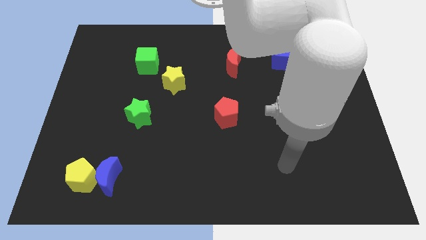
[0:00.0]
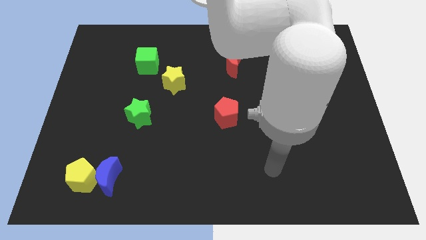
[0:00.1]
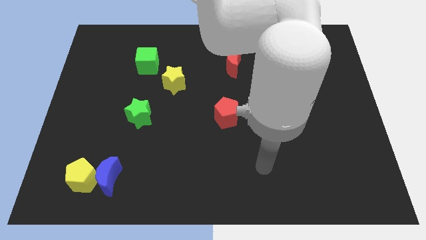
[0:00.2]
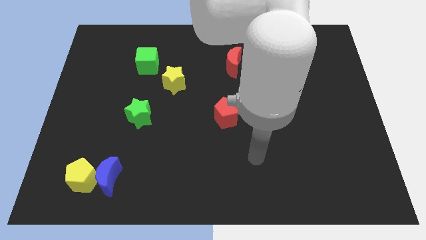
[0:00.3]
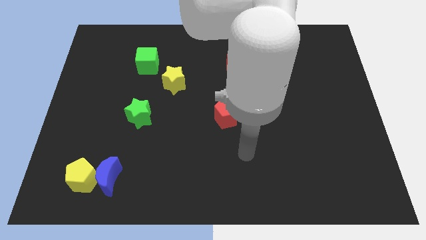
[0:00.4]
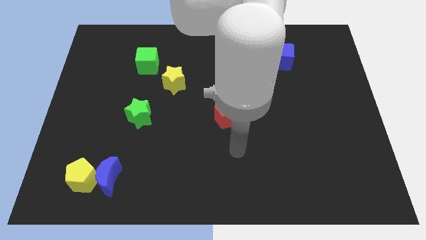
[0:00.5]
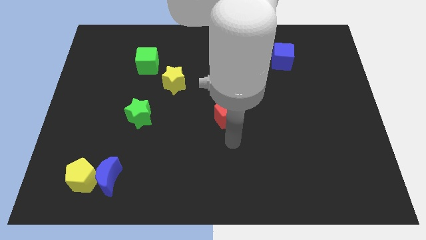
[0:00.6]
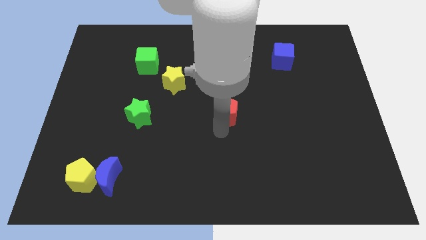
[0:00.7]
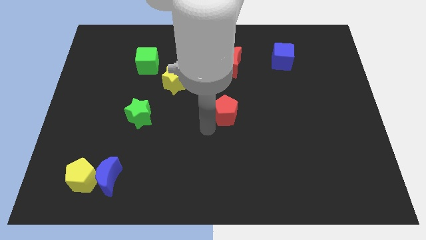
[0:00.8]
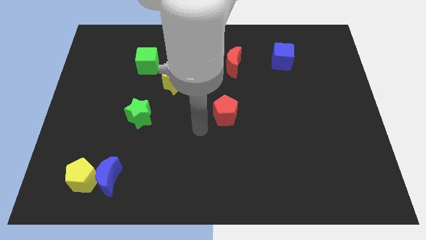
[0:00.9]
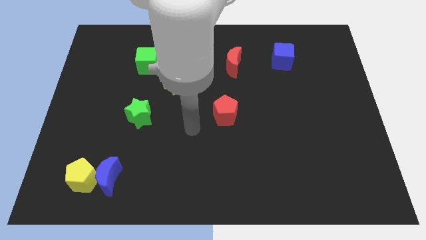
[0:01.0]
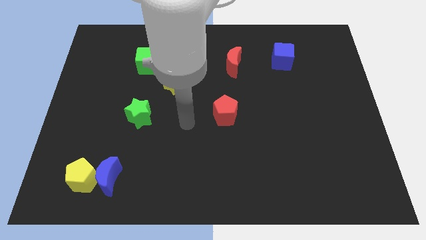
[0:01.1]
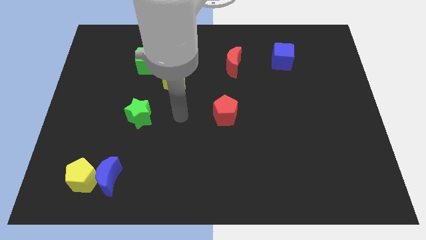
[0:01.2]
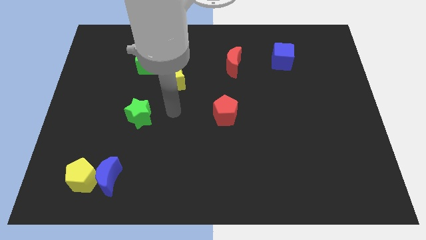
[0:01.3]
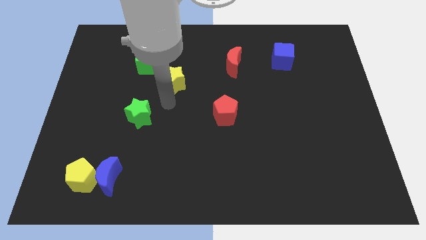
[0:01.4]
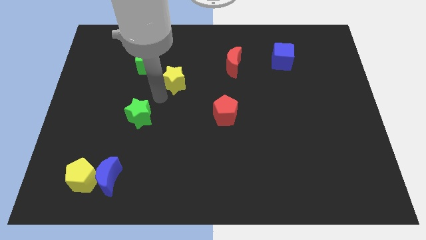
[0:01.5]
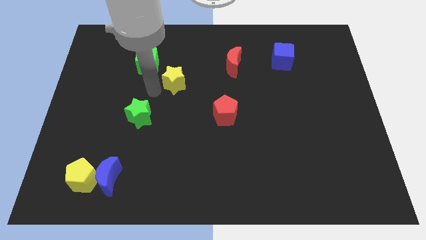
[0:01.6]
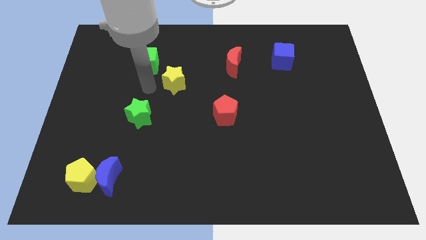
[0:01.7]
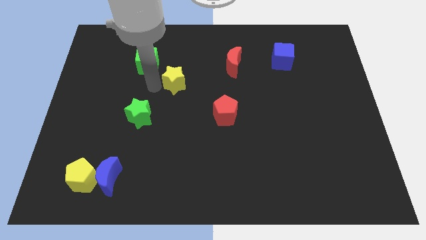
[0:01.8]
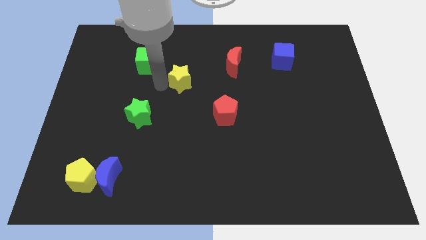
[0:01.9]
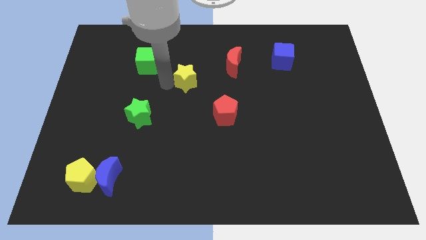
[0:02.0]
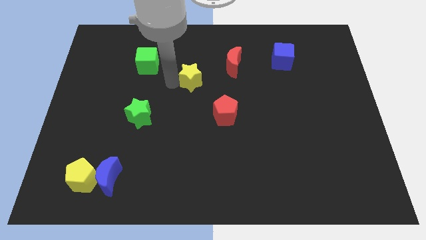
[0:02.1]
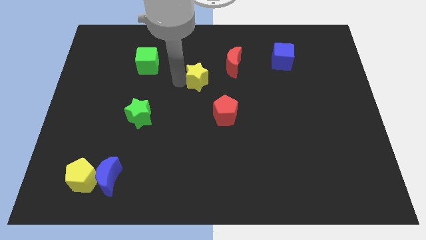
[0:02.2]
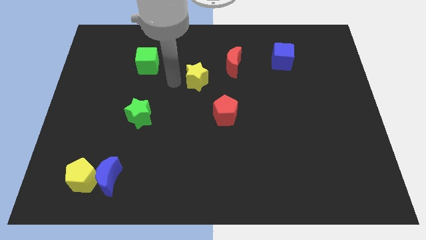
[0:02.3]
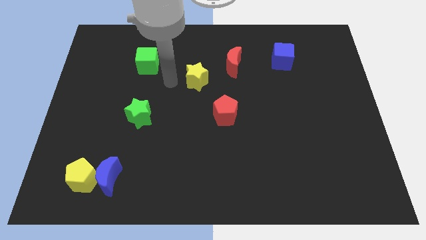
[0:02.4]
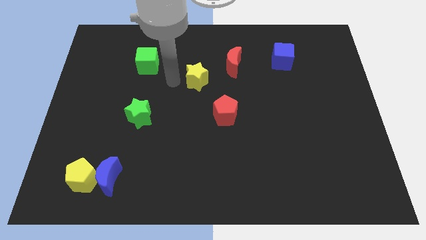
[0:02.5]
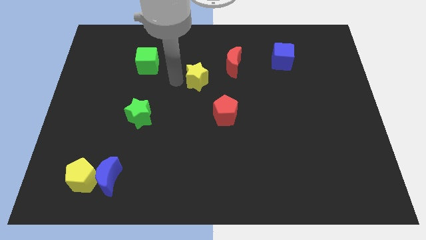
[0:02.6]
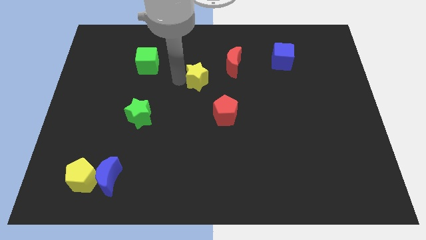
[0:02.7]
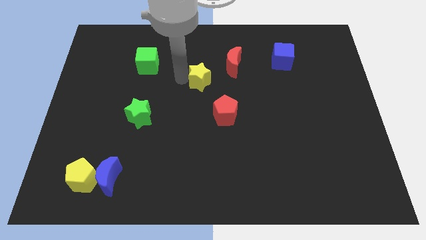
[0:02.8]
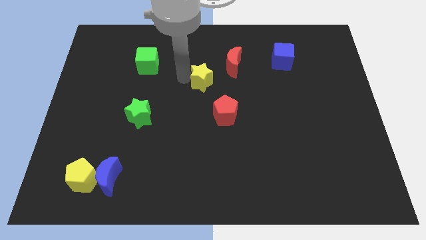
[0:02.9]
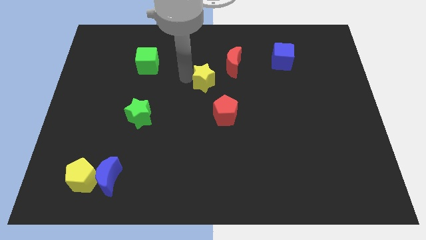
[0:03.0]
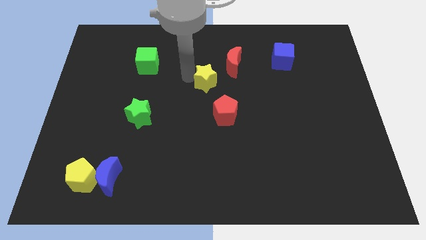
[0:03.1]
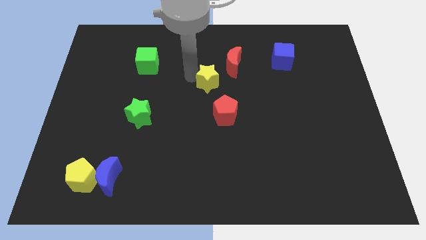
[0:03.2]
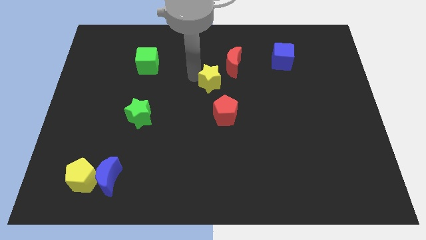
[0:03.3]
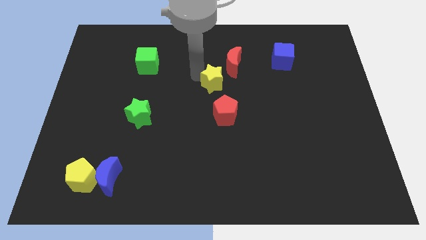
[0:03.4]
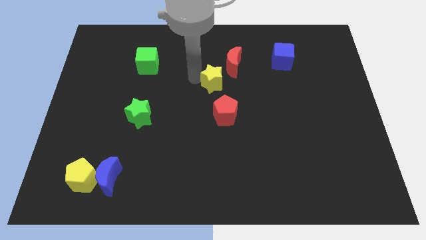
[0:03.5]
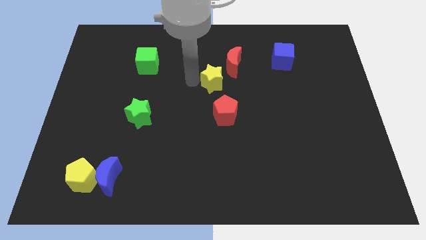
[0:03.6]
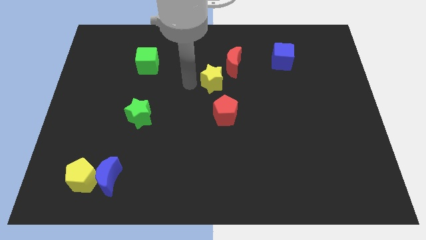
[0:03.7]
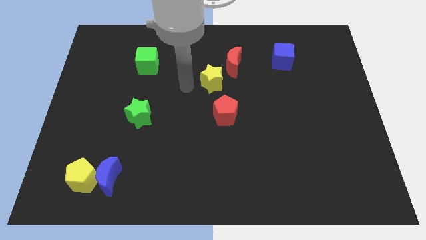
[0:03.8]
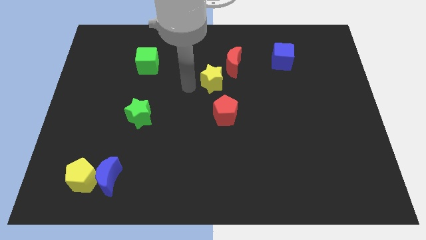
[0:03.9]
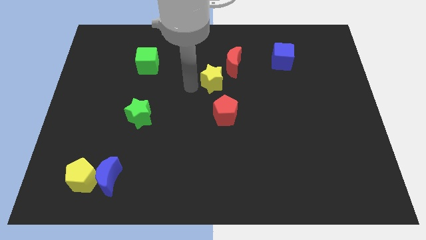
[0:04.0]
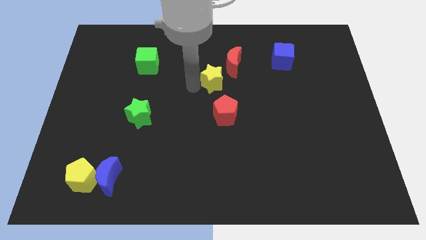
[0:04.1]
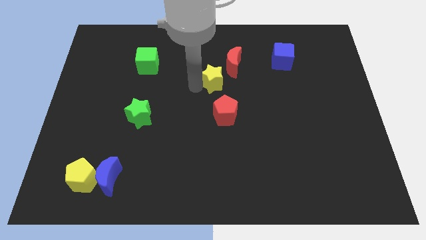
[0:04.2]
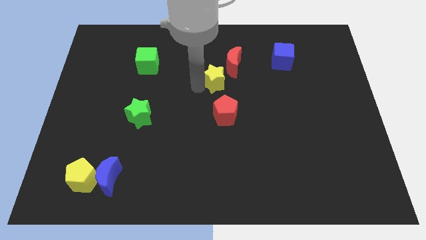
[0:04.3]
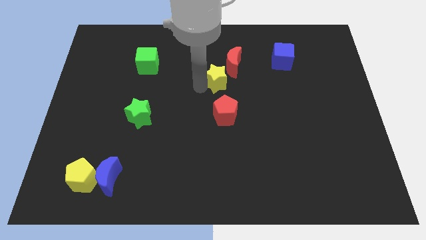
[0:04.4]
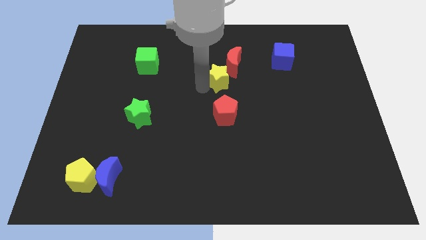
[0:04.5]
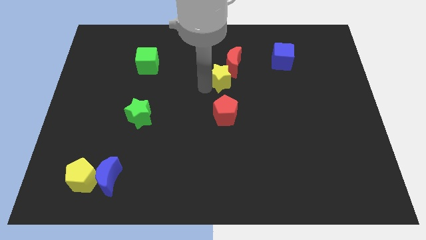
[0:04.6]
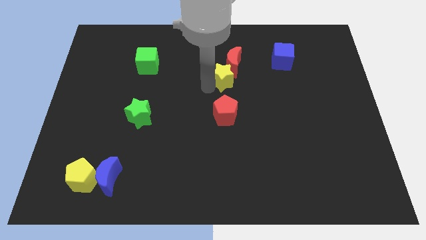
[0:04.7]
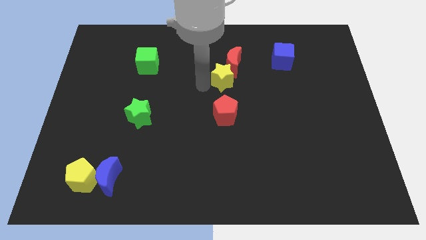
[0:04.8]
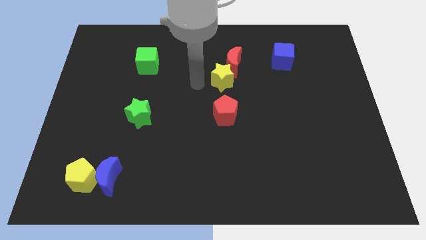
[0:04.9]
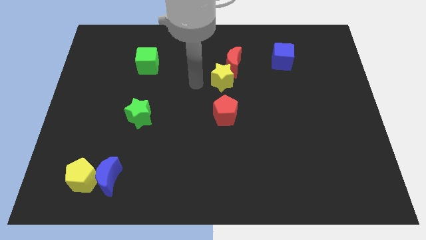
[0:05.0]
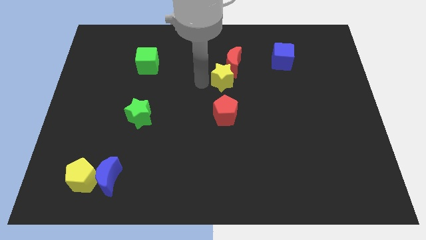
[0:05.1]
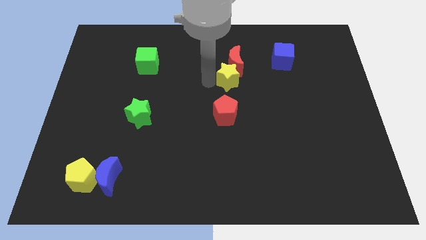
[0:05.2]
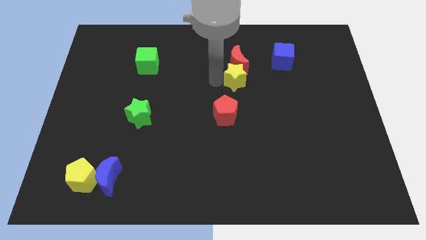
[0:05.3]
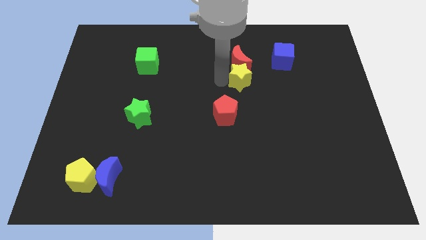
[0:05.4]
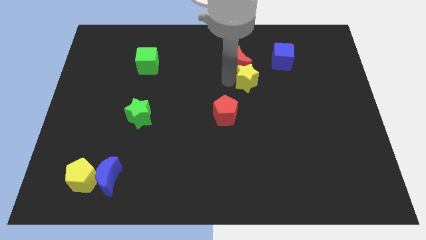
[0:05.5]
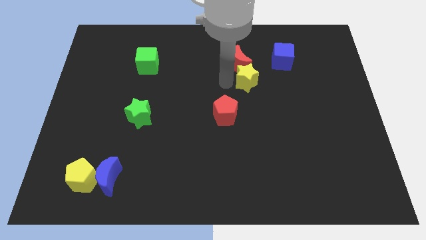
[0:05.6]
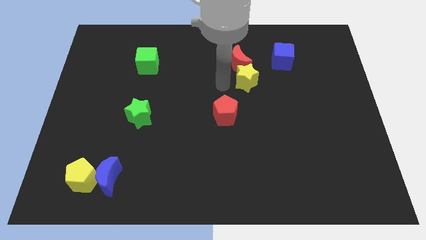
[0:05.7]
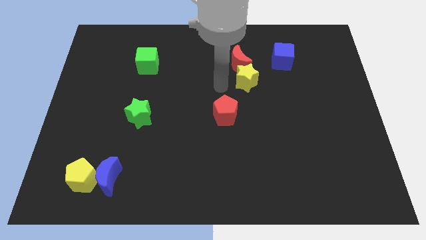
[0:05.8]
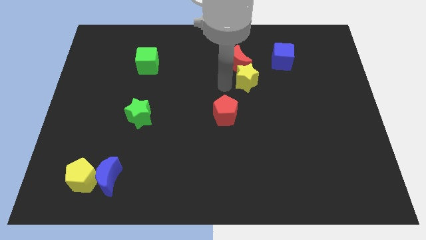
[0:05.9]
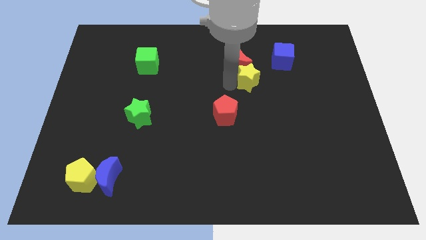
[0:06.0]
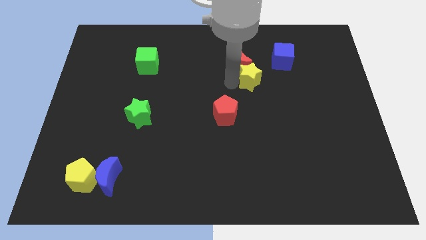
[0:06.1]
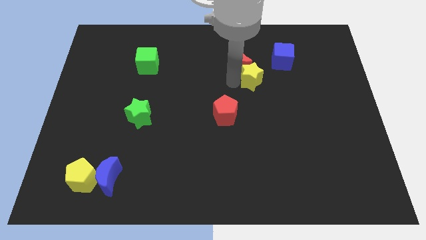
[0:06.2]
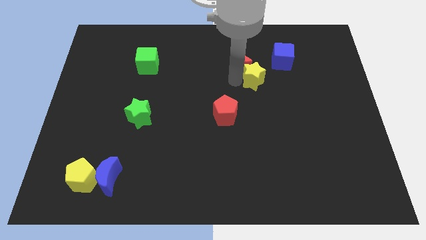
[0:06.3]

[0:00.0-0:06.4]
move the yellow star to the right

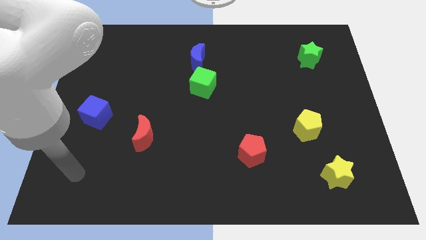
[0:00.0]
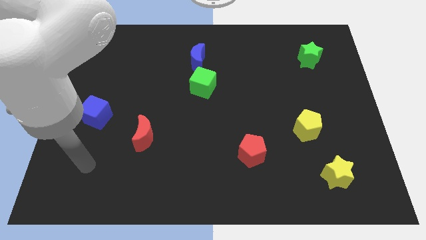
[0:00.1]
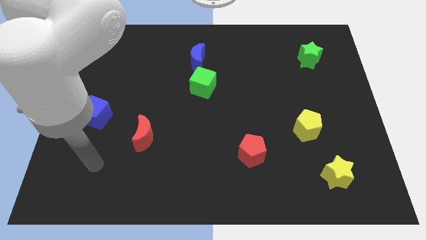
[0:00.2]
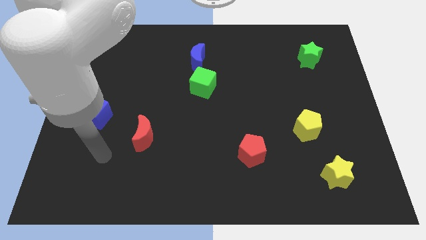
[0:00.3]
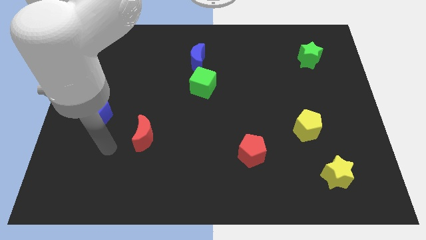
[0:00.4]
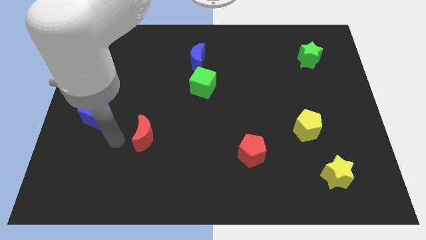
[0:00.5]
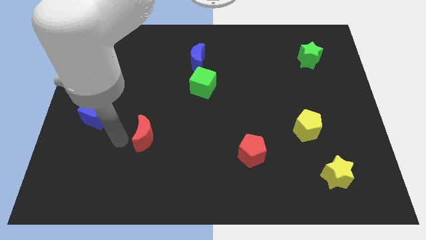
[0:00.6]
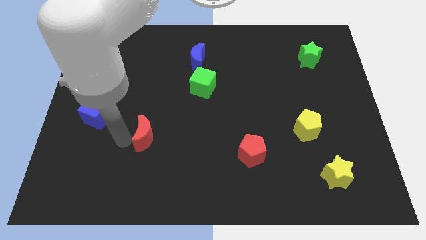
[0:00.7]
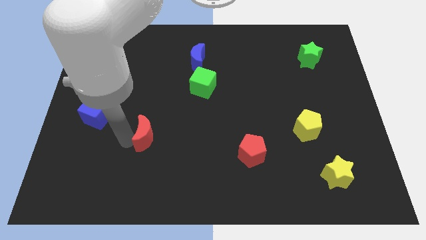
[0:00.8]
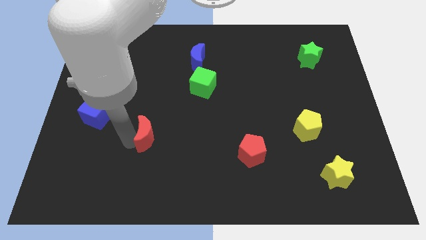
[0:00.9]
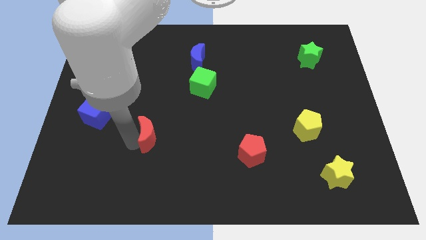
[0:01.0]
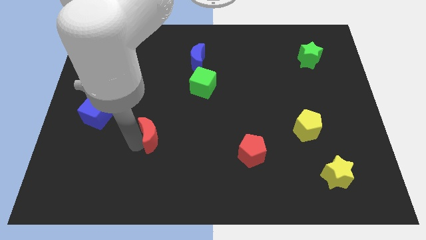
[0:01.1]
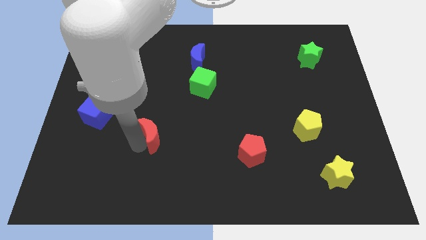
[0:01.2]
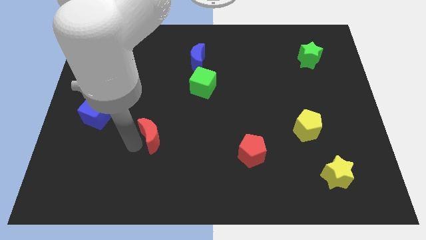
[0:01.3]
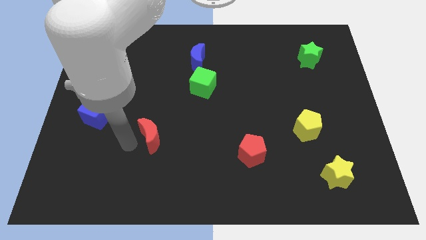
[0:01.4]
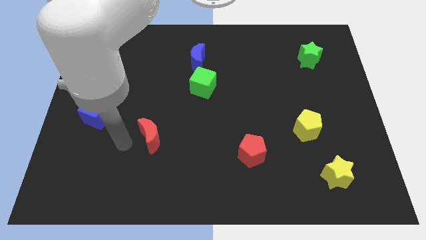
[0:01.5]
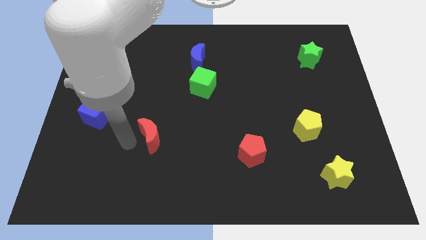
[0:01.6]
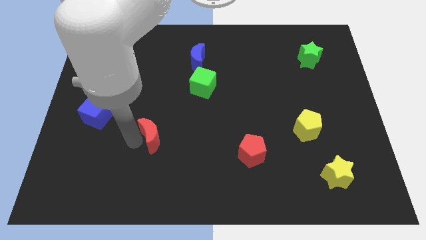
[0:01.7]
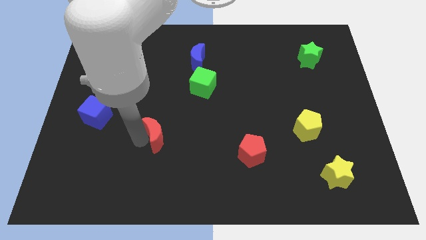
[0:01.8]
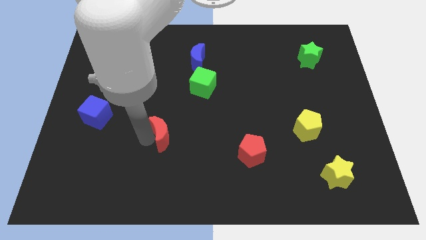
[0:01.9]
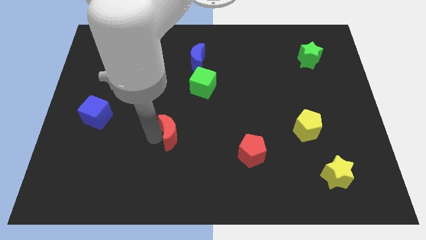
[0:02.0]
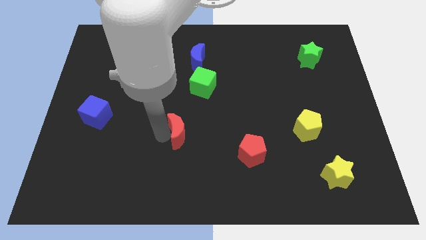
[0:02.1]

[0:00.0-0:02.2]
push the red moon somewhat right
